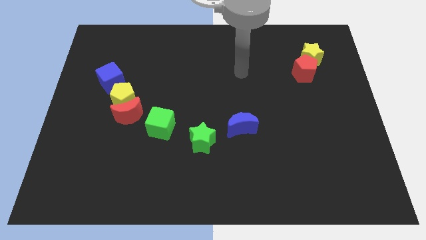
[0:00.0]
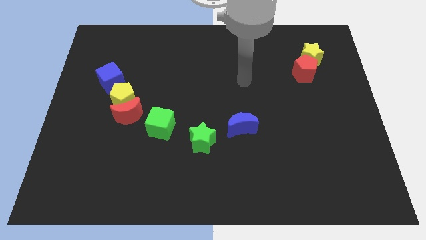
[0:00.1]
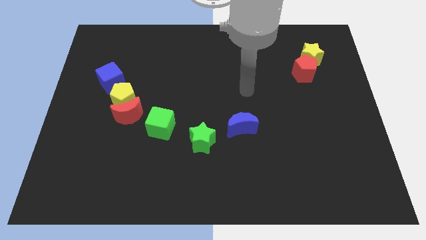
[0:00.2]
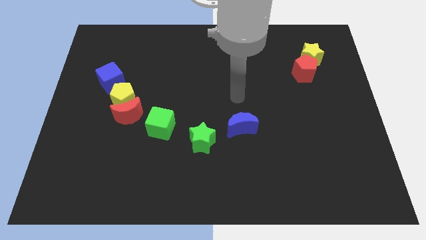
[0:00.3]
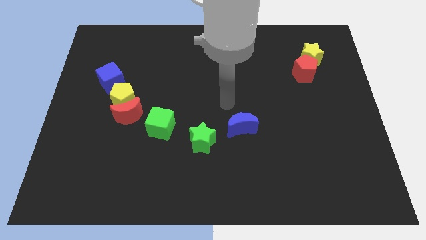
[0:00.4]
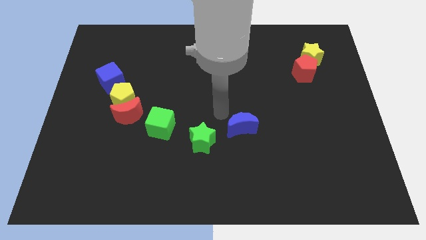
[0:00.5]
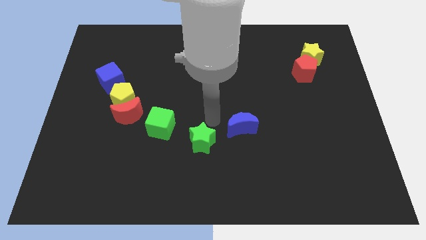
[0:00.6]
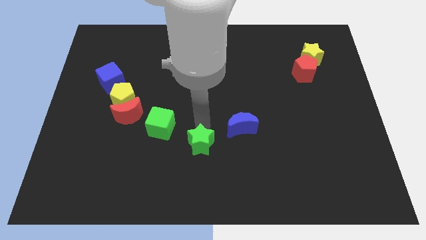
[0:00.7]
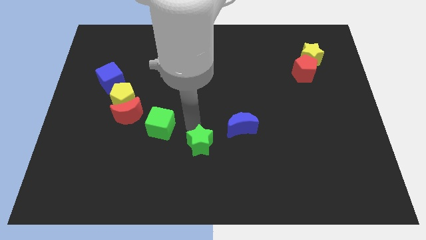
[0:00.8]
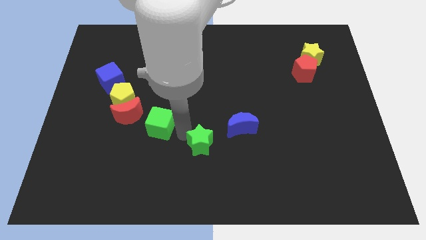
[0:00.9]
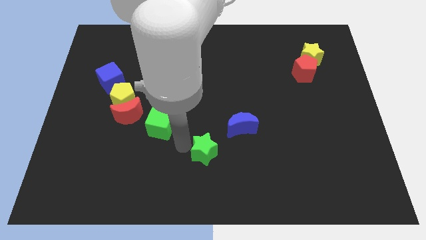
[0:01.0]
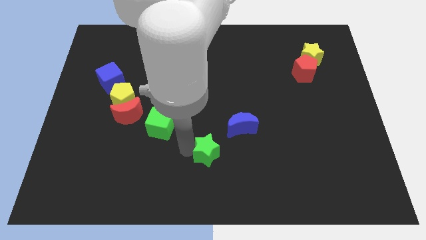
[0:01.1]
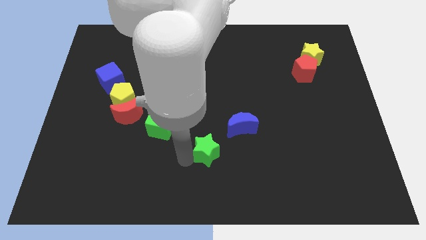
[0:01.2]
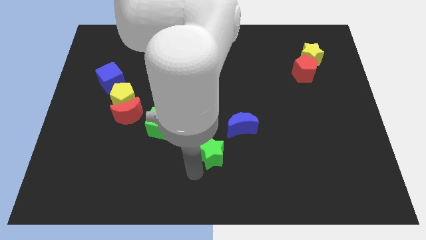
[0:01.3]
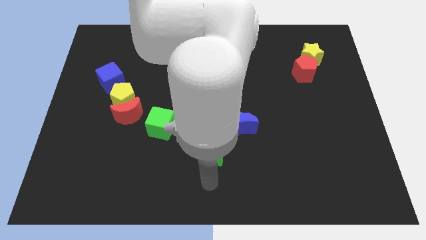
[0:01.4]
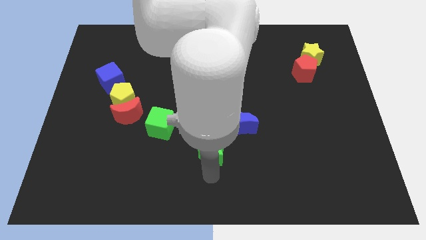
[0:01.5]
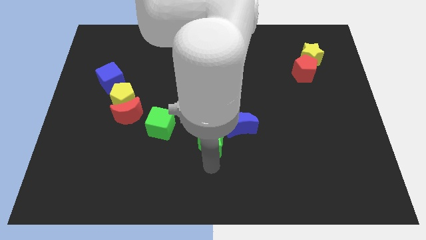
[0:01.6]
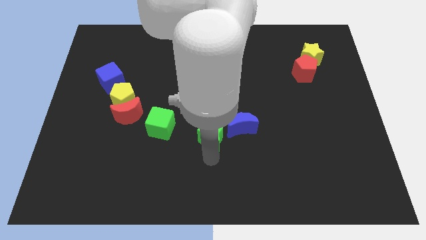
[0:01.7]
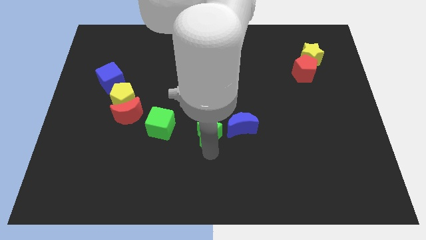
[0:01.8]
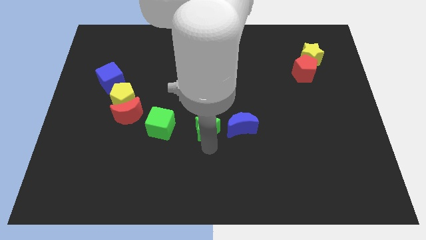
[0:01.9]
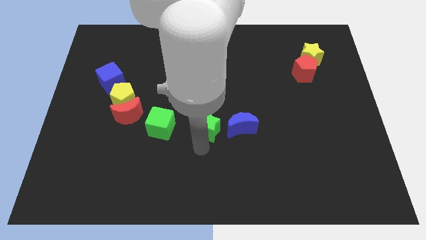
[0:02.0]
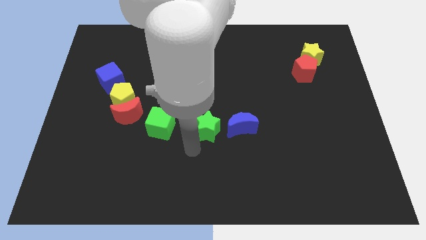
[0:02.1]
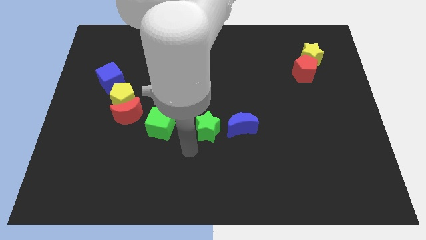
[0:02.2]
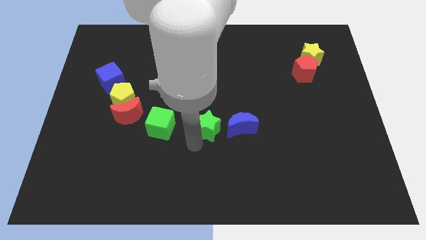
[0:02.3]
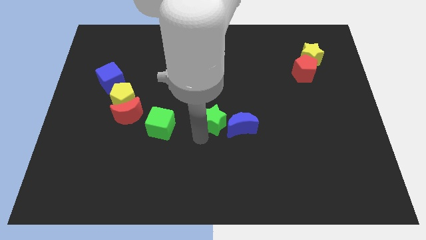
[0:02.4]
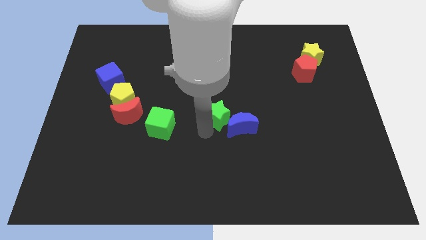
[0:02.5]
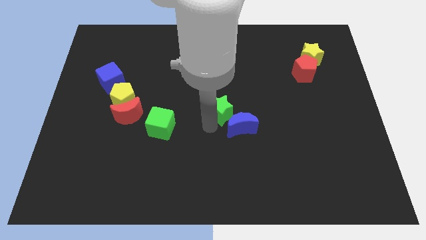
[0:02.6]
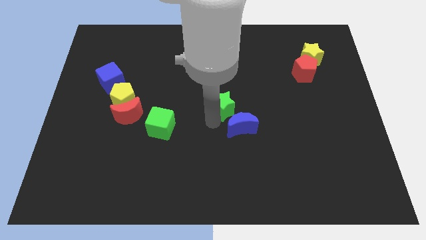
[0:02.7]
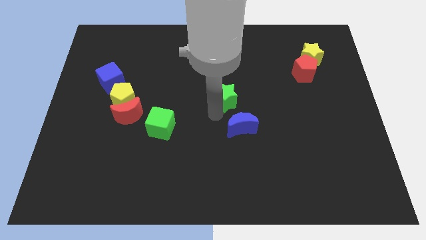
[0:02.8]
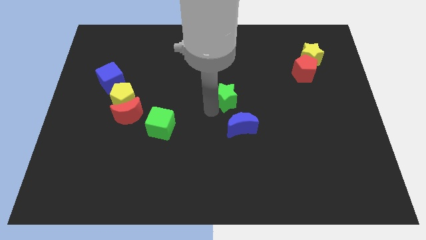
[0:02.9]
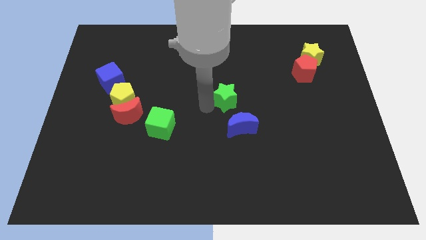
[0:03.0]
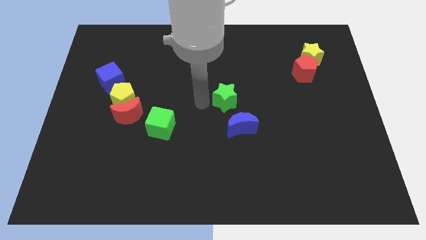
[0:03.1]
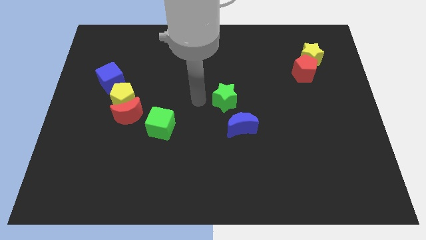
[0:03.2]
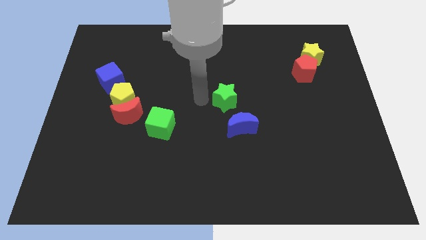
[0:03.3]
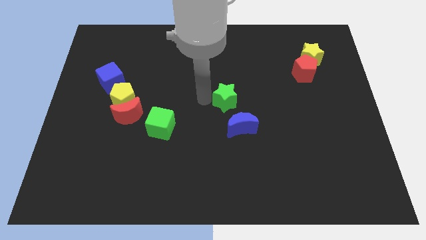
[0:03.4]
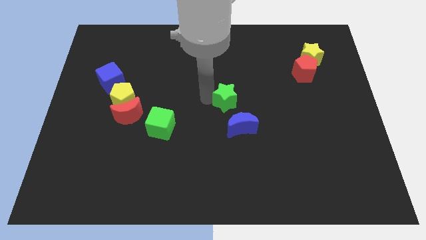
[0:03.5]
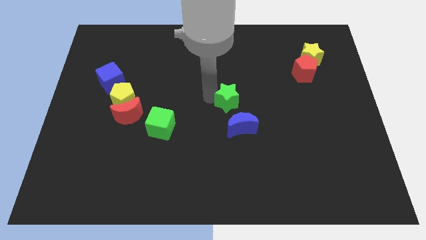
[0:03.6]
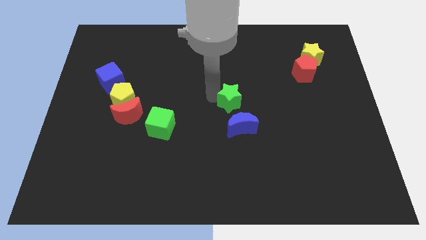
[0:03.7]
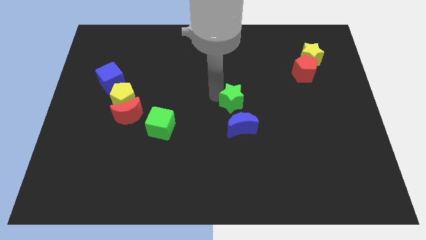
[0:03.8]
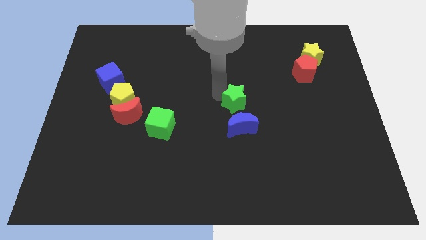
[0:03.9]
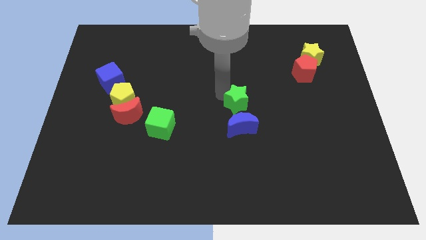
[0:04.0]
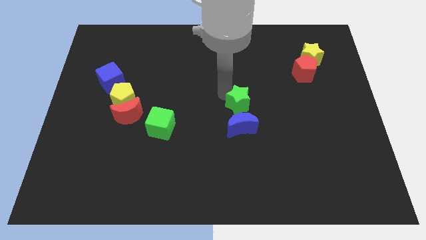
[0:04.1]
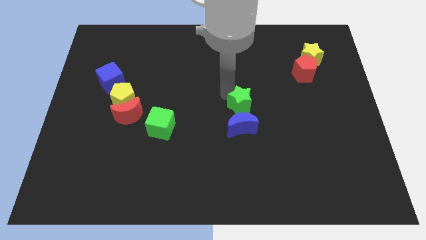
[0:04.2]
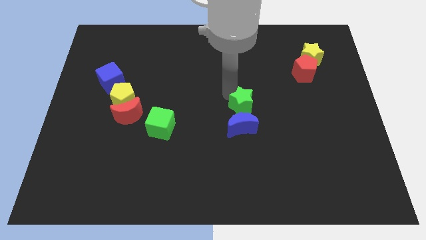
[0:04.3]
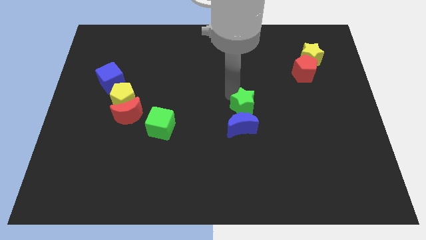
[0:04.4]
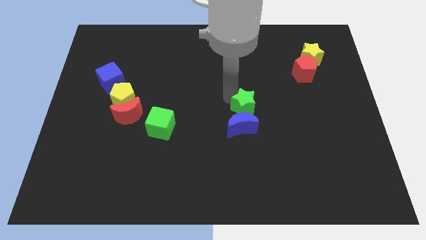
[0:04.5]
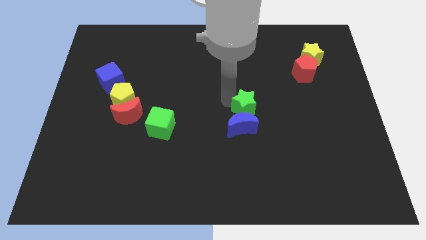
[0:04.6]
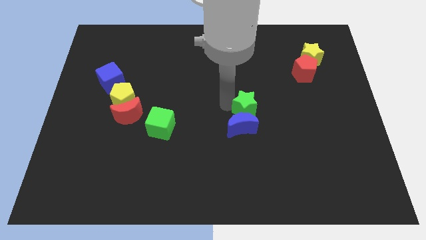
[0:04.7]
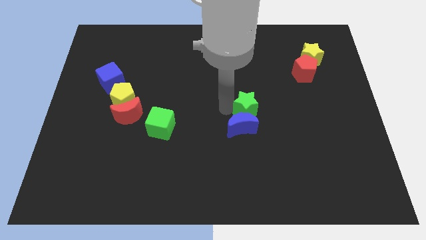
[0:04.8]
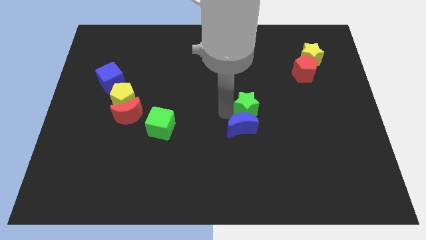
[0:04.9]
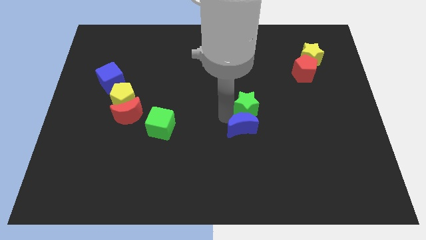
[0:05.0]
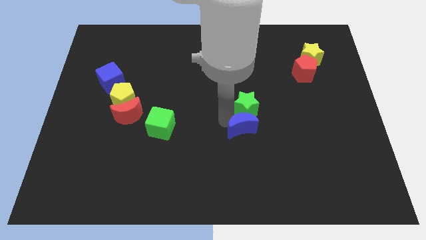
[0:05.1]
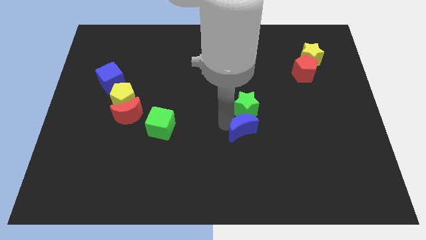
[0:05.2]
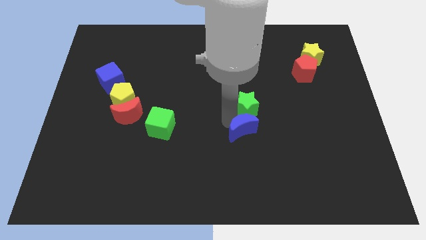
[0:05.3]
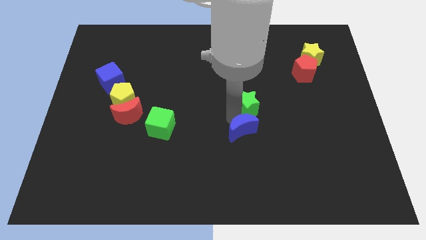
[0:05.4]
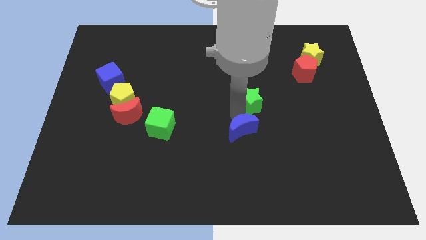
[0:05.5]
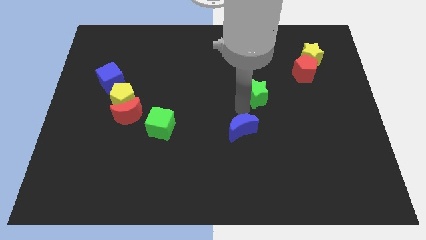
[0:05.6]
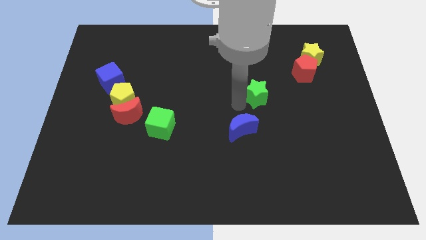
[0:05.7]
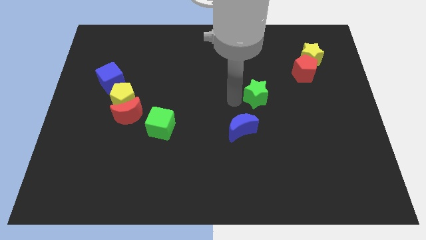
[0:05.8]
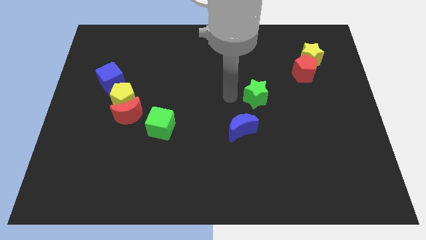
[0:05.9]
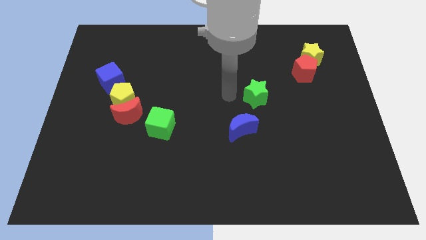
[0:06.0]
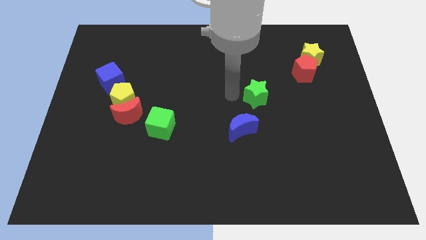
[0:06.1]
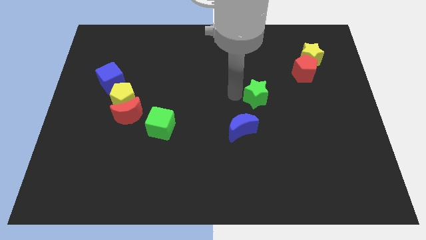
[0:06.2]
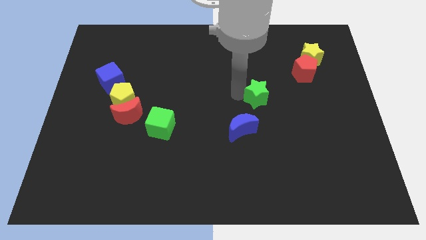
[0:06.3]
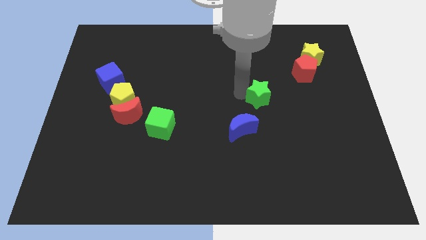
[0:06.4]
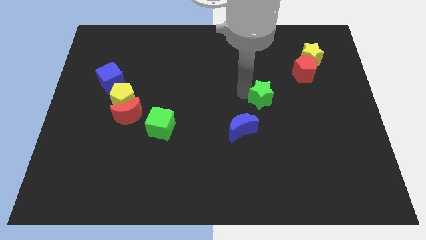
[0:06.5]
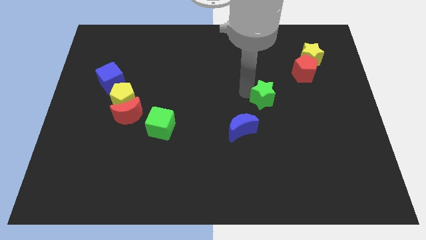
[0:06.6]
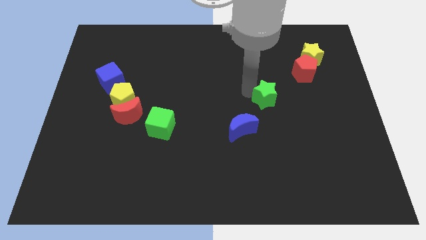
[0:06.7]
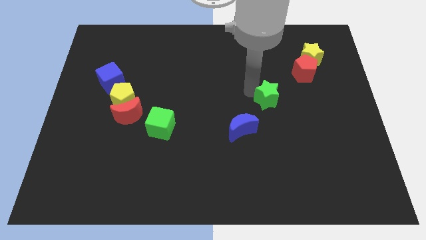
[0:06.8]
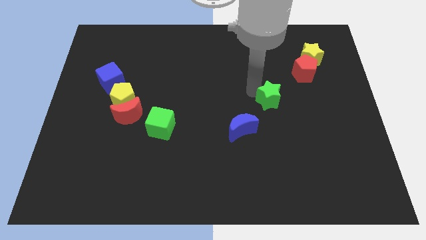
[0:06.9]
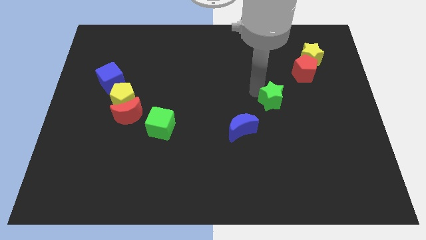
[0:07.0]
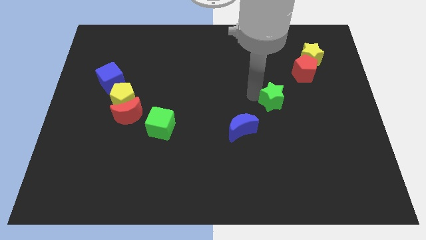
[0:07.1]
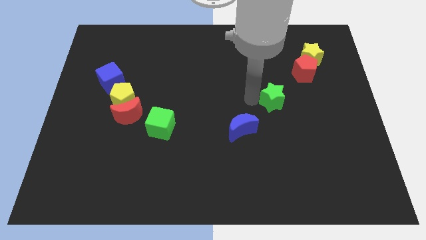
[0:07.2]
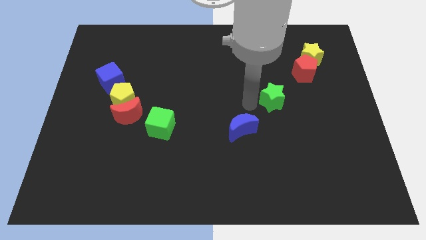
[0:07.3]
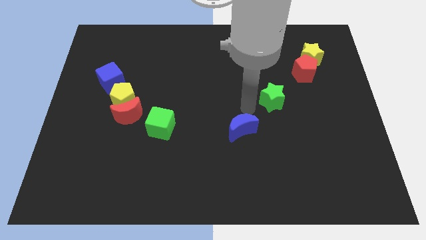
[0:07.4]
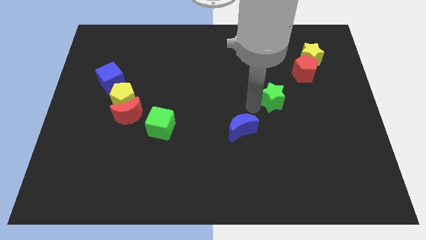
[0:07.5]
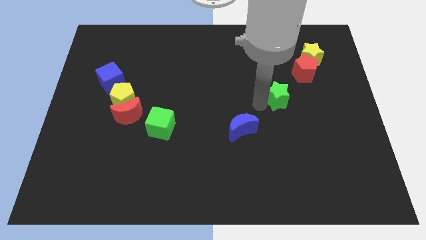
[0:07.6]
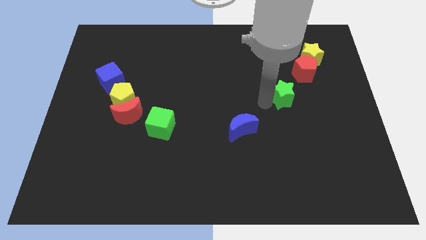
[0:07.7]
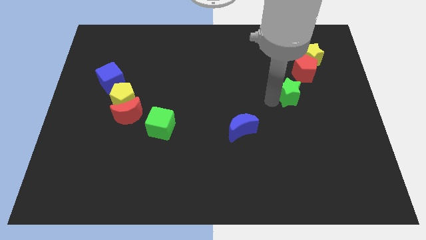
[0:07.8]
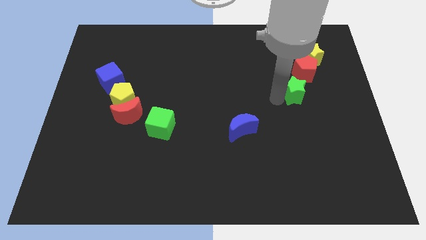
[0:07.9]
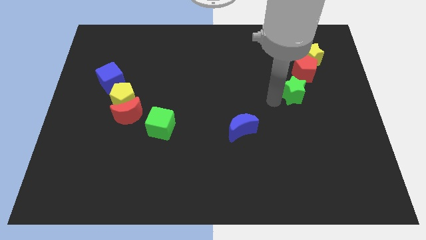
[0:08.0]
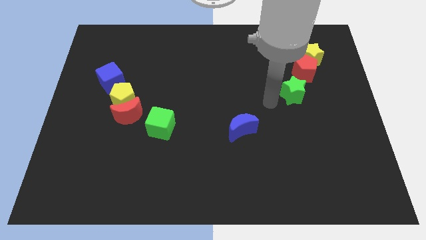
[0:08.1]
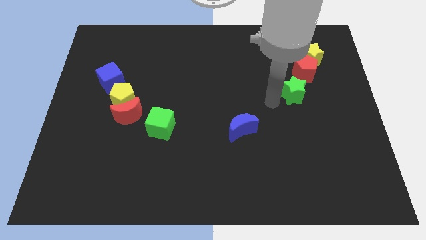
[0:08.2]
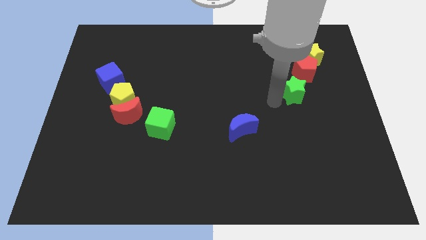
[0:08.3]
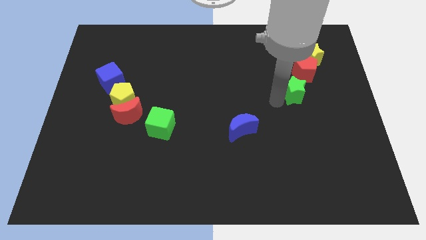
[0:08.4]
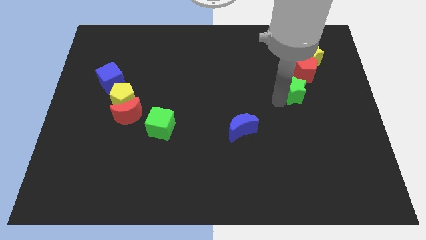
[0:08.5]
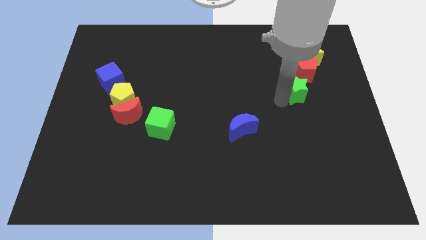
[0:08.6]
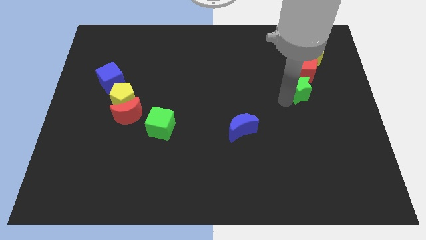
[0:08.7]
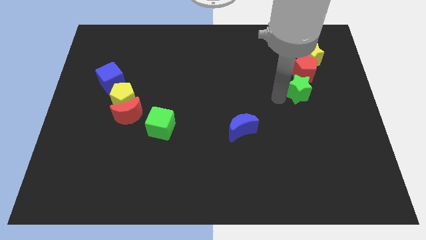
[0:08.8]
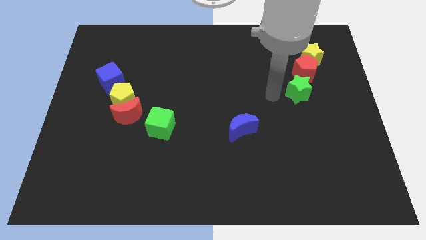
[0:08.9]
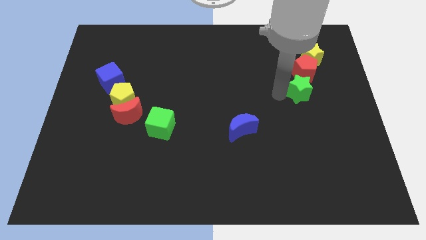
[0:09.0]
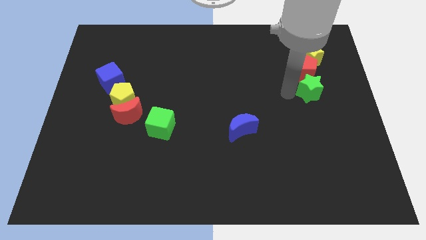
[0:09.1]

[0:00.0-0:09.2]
put the green star to the bottom right side of the red pentagon
